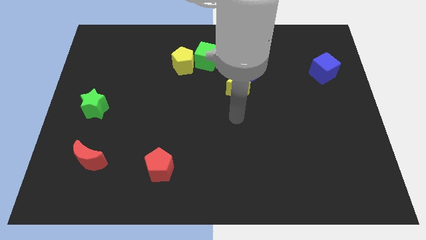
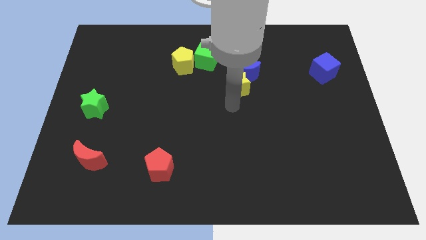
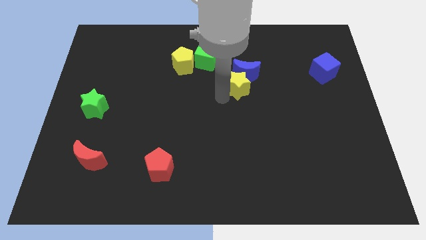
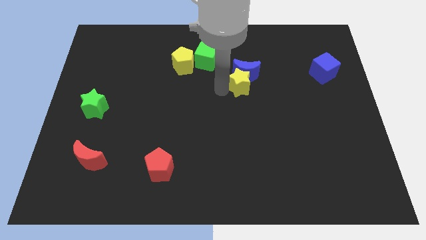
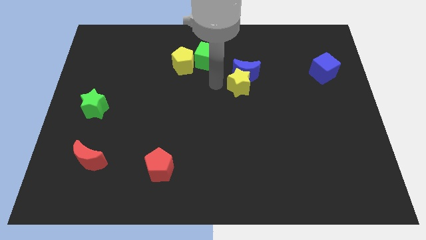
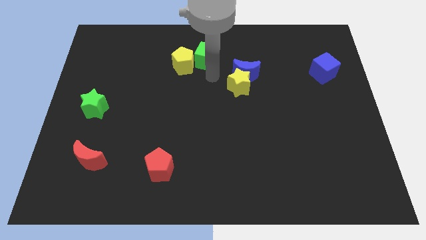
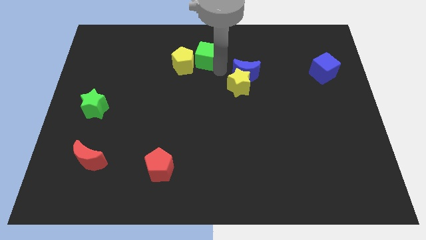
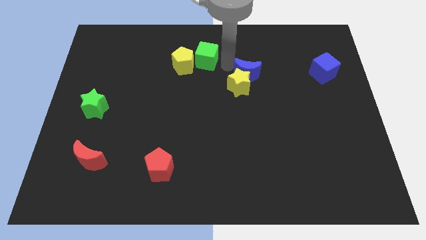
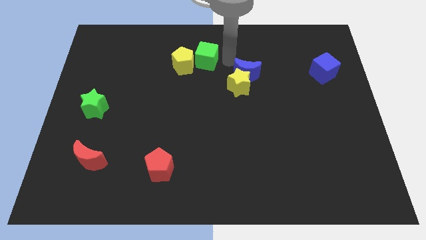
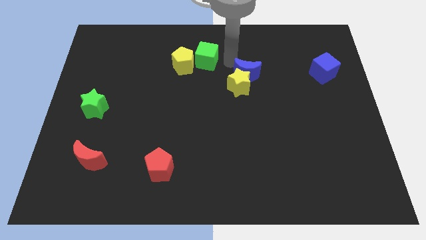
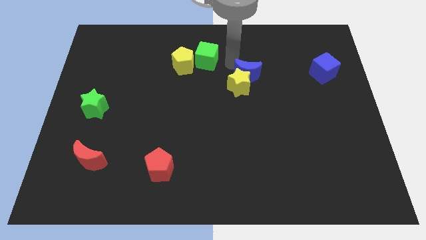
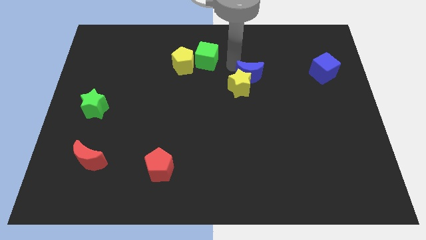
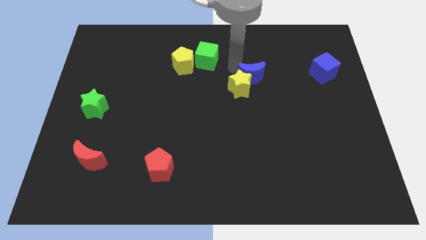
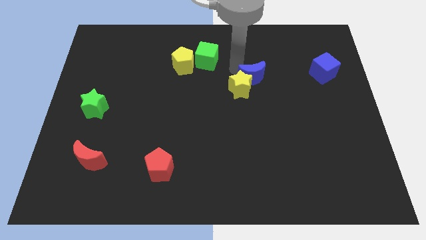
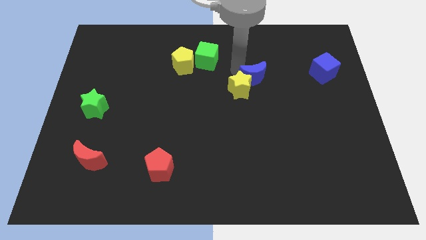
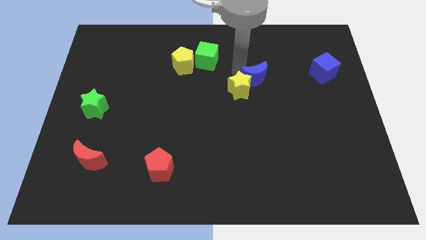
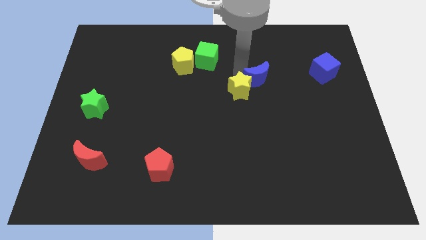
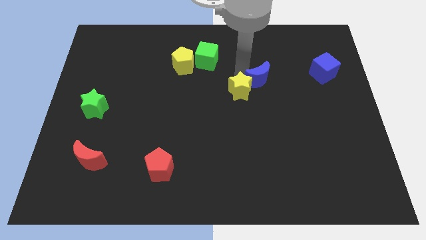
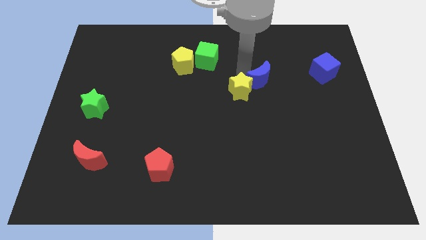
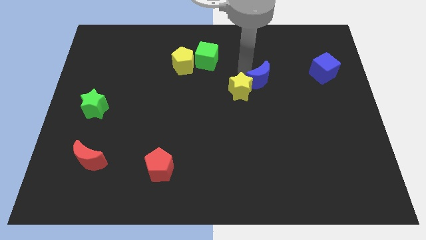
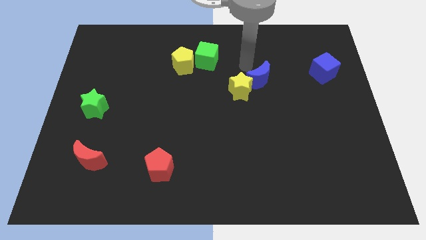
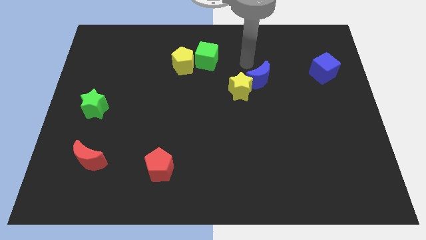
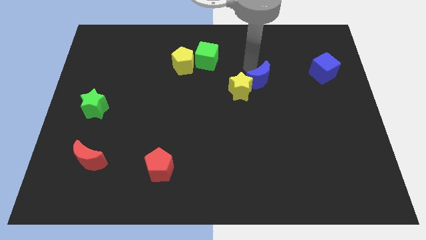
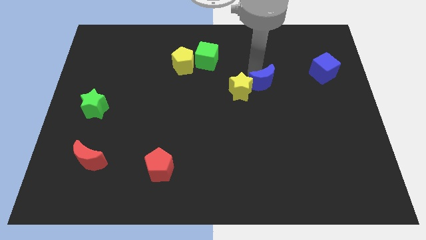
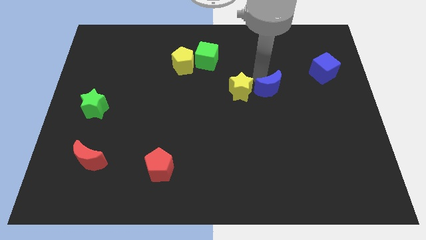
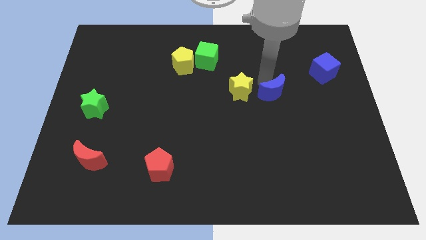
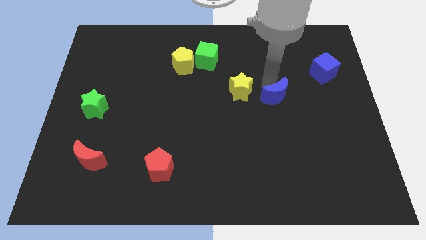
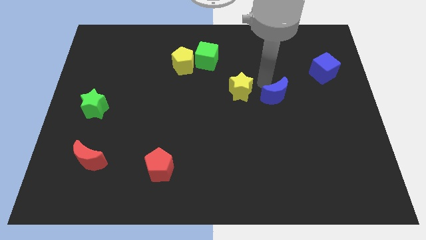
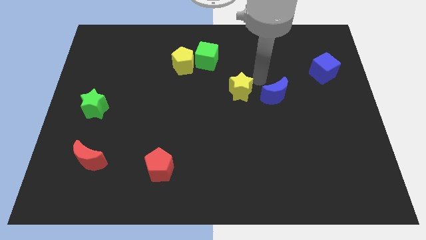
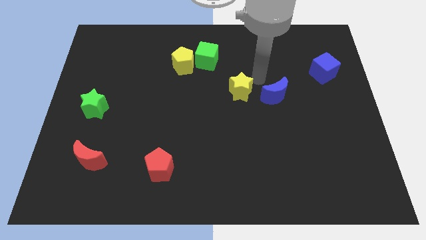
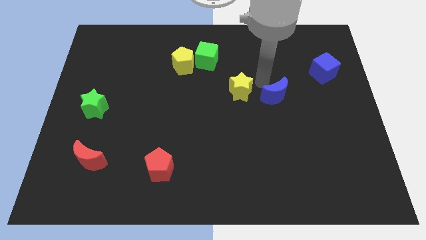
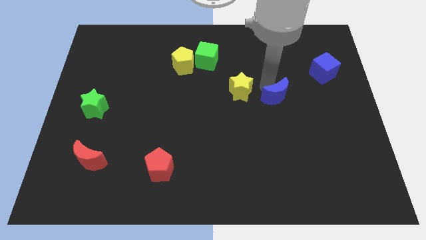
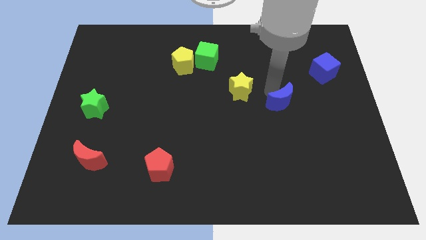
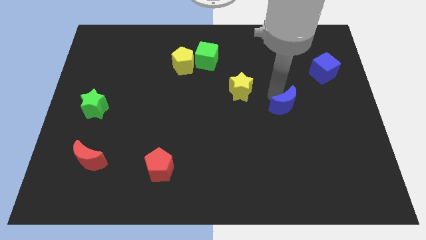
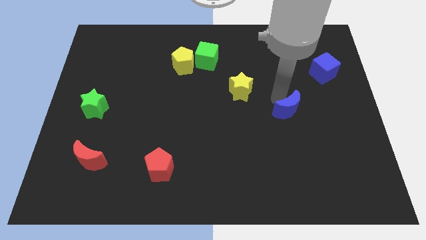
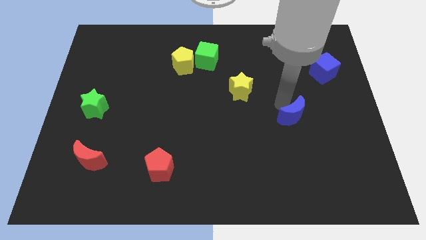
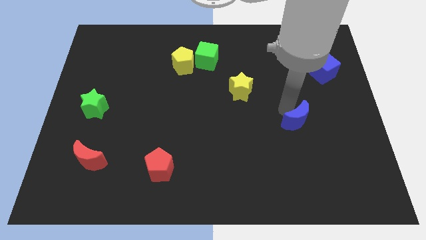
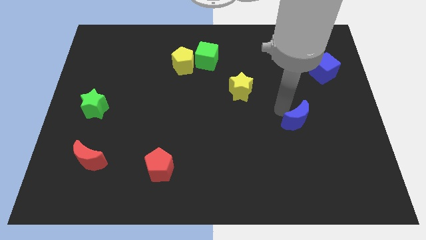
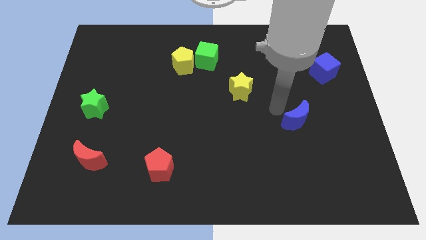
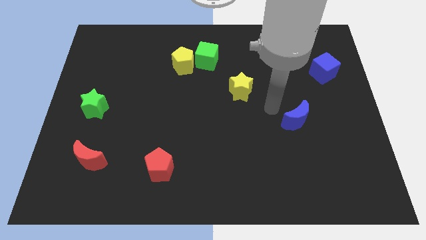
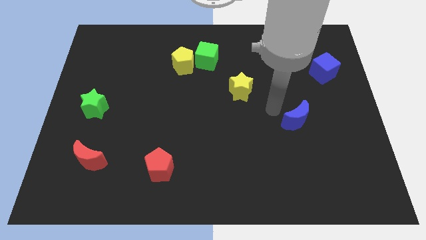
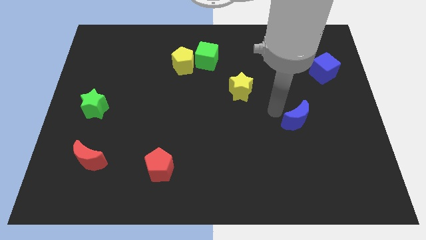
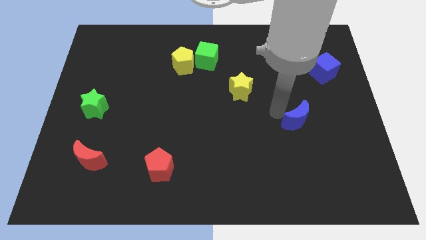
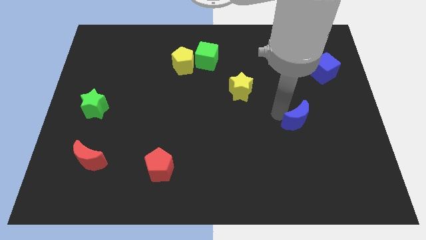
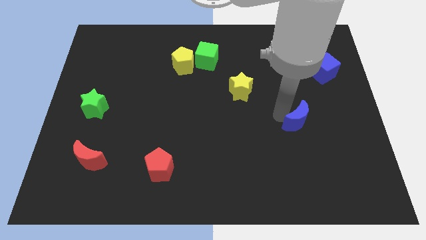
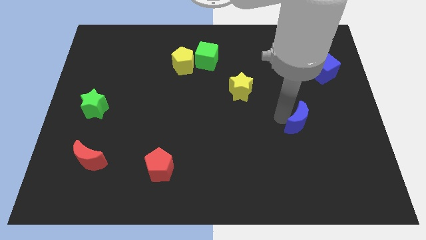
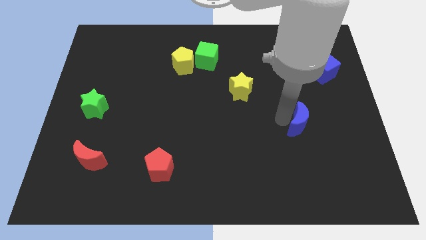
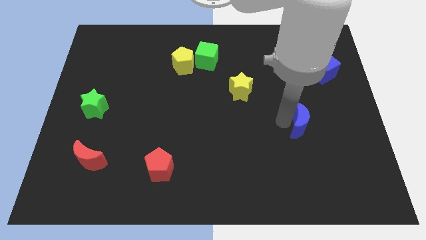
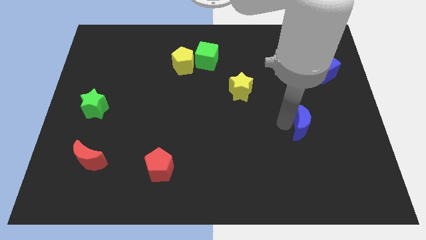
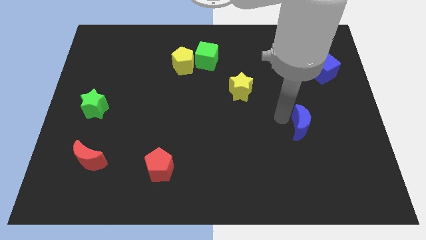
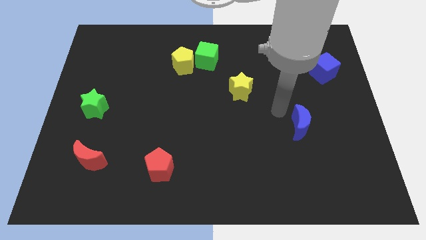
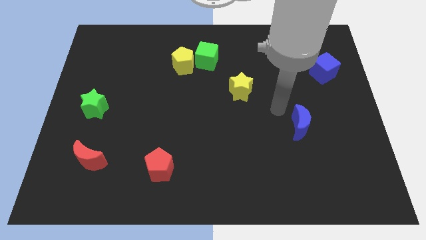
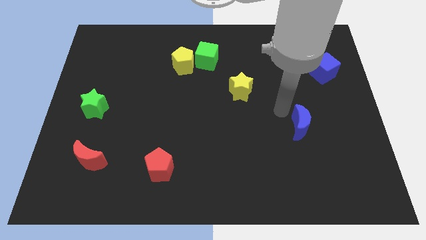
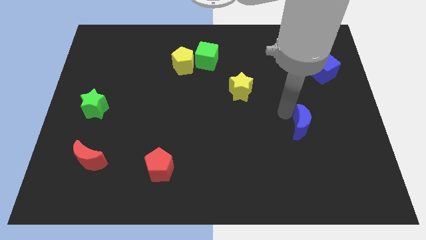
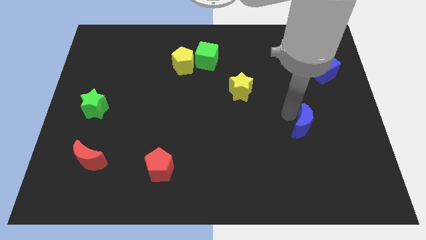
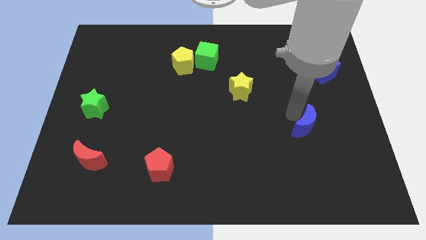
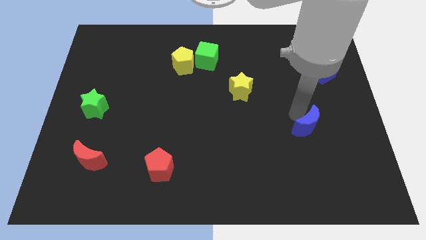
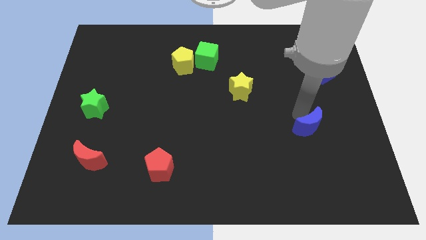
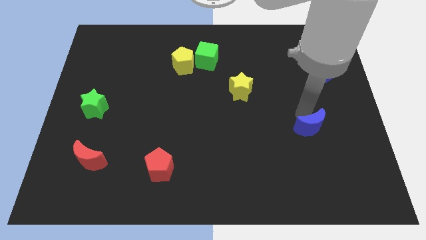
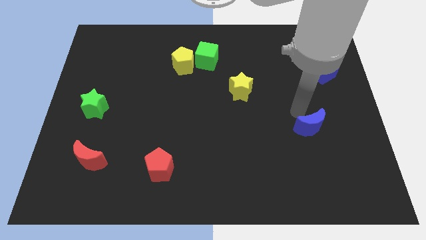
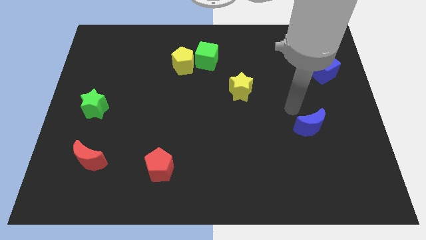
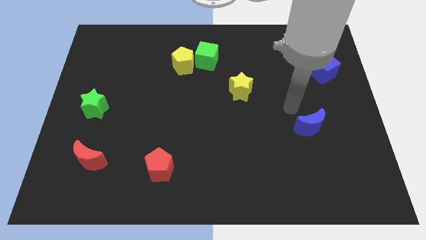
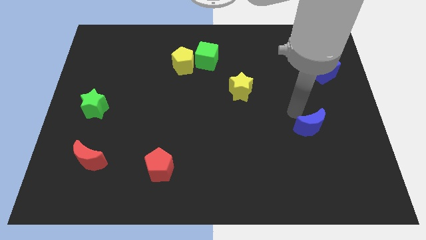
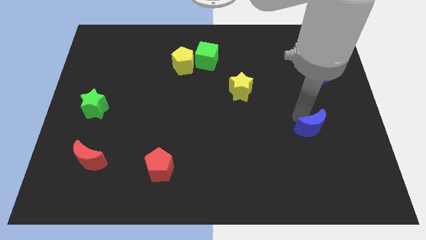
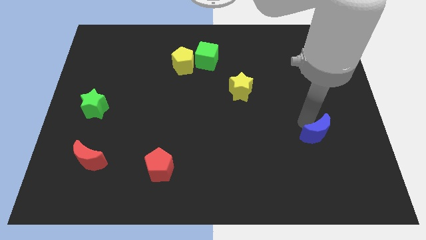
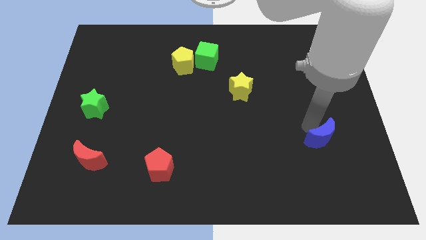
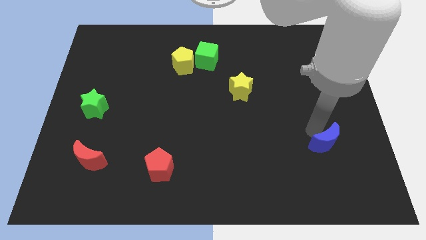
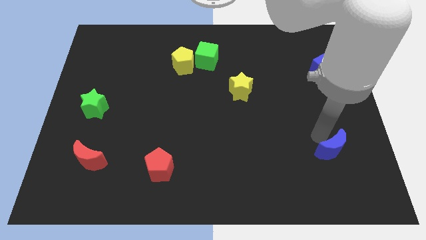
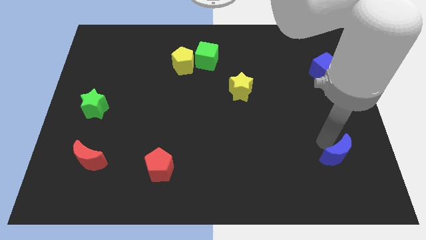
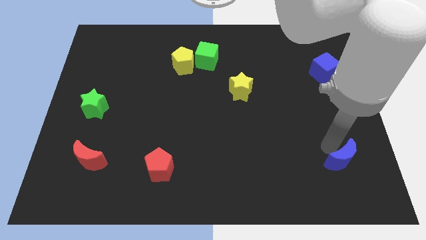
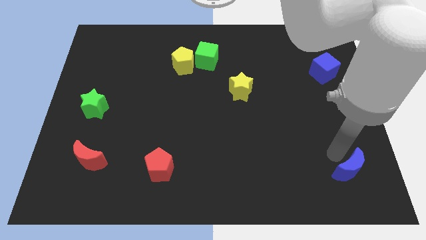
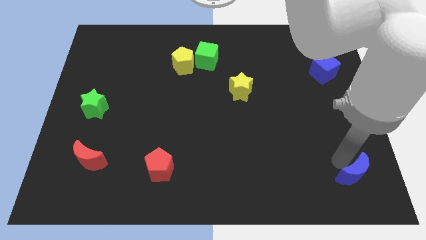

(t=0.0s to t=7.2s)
slide the blue moon to the lower right corner
